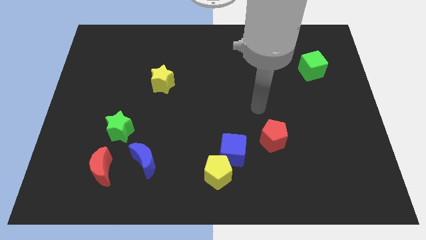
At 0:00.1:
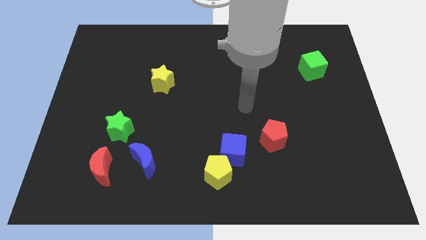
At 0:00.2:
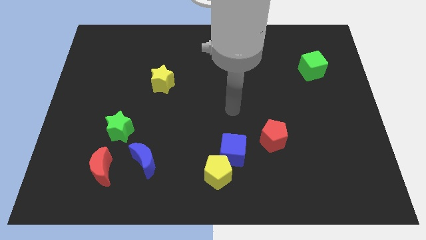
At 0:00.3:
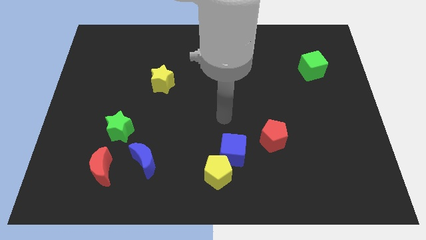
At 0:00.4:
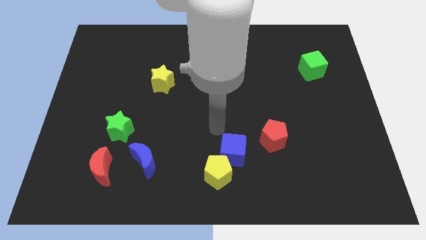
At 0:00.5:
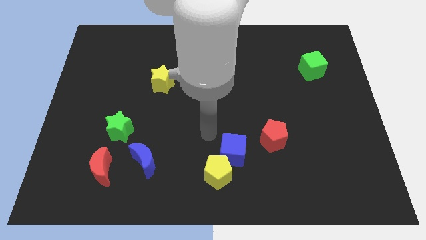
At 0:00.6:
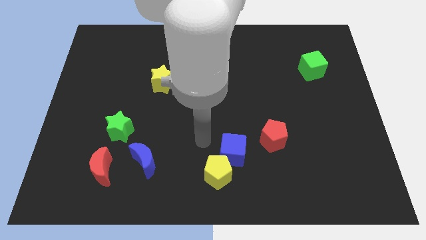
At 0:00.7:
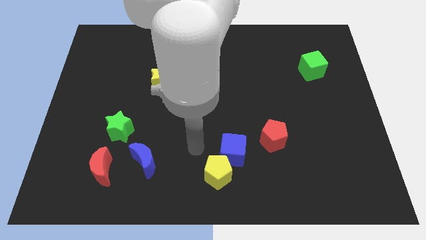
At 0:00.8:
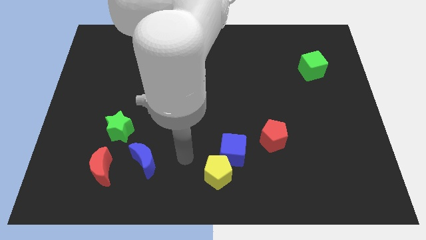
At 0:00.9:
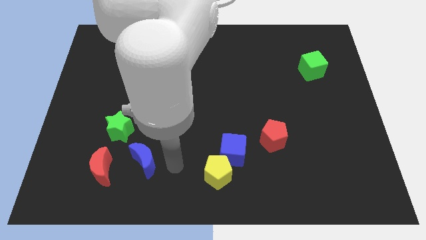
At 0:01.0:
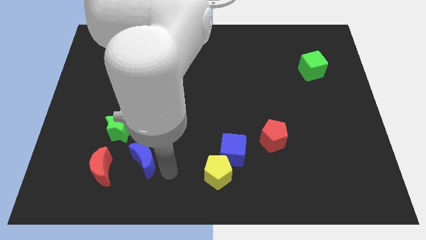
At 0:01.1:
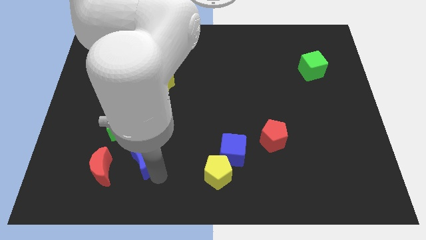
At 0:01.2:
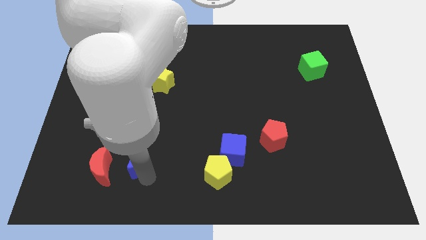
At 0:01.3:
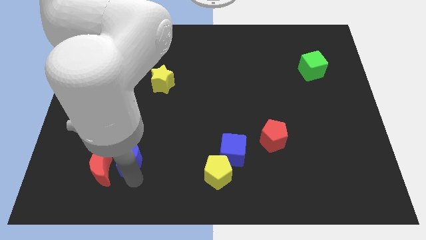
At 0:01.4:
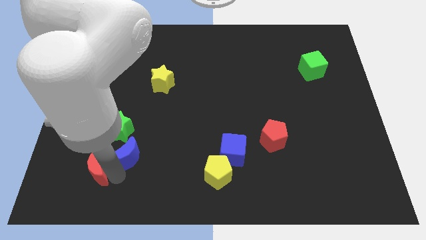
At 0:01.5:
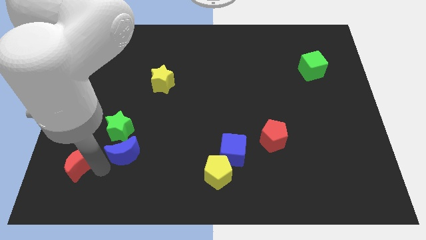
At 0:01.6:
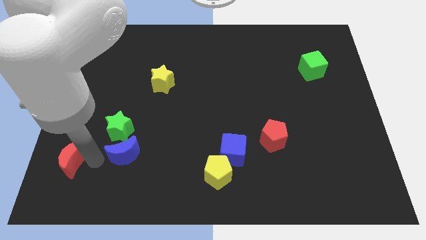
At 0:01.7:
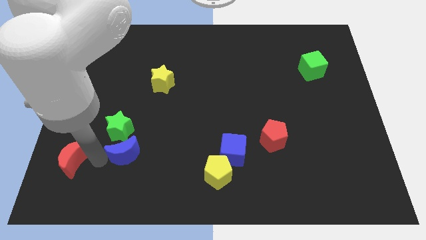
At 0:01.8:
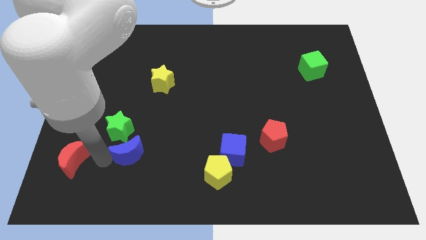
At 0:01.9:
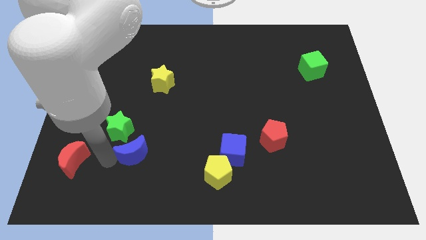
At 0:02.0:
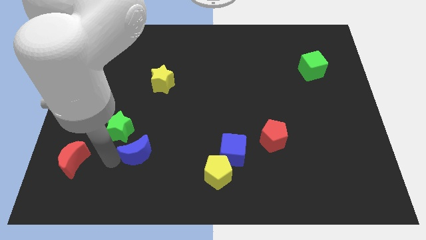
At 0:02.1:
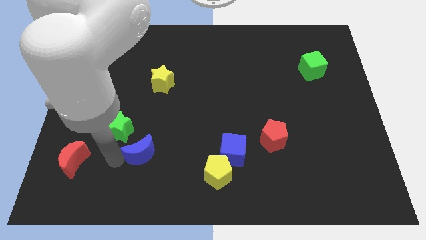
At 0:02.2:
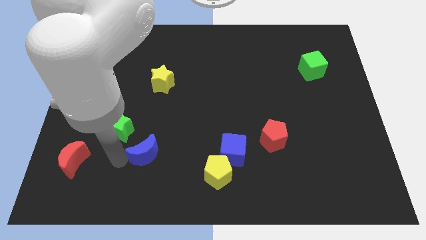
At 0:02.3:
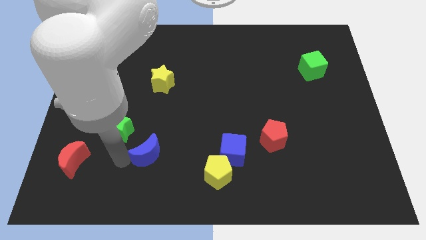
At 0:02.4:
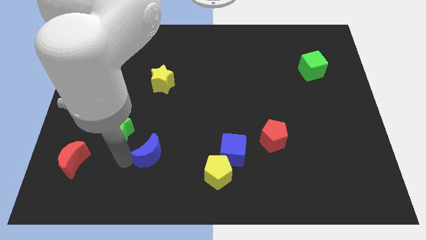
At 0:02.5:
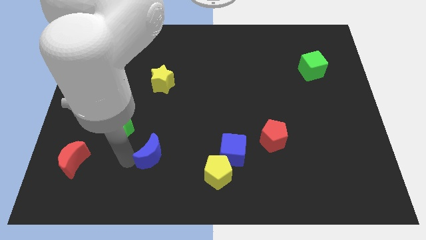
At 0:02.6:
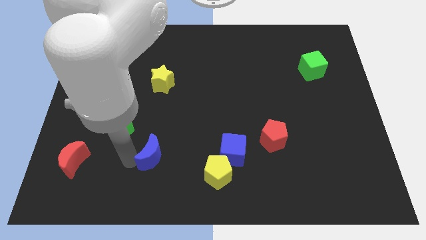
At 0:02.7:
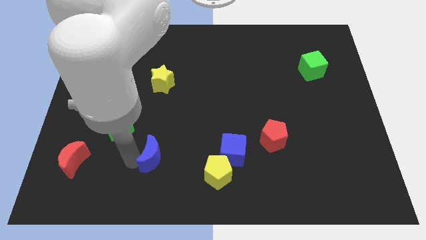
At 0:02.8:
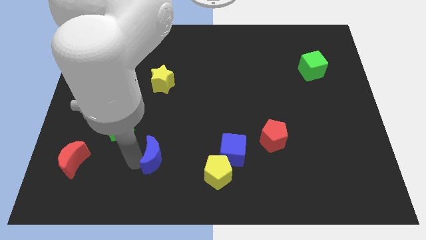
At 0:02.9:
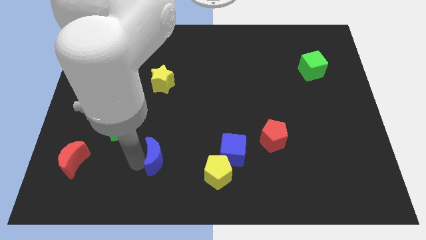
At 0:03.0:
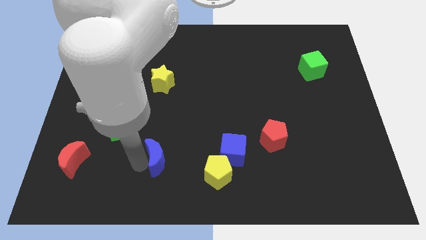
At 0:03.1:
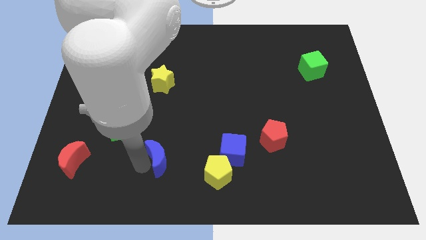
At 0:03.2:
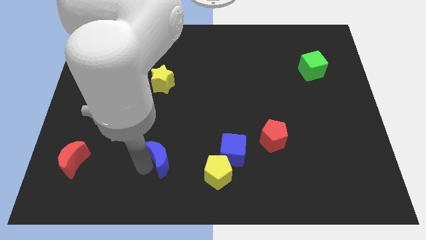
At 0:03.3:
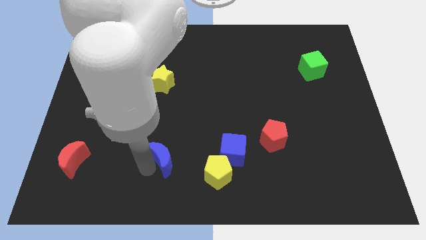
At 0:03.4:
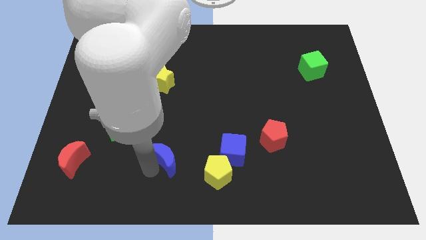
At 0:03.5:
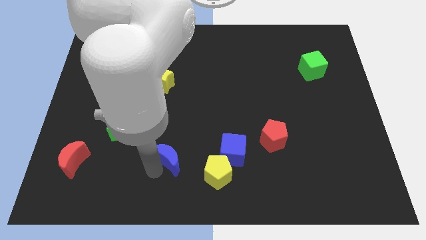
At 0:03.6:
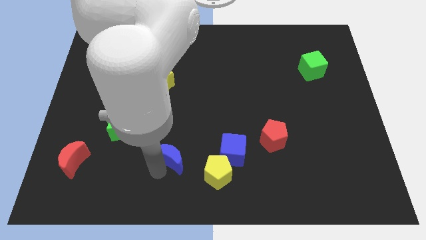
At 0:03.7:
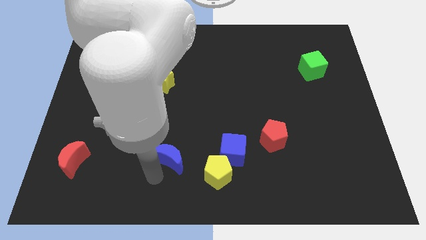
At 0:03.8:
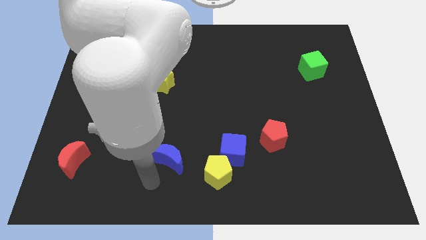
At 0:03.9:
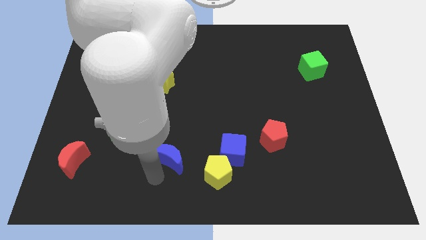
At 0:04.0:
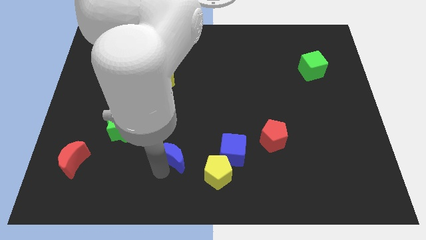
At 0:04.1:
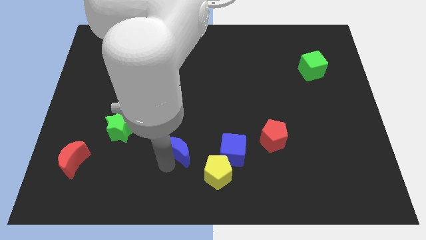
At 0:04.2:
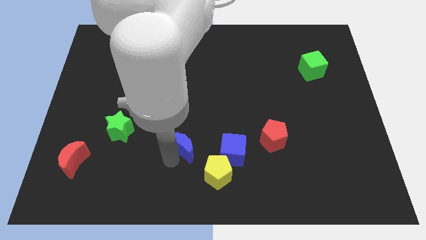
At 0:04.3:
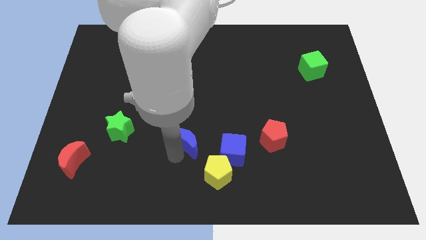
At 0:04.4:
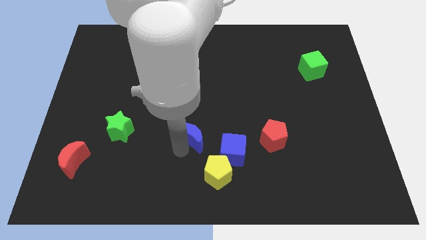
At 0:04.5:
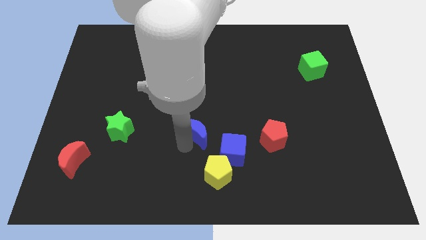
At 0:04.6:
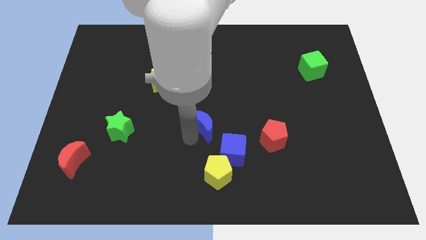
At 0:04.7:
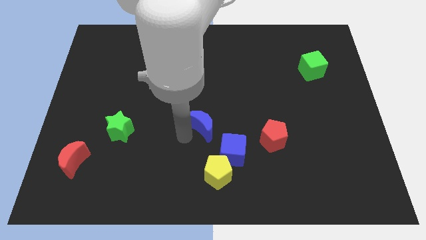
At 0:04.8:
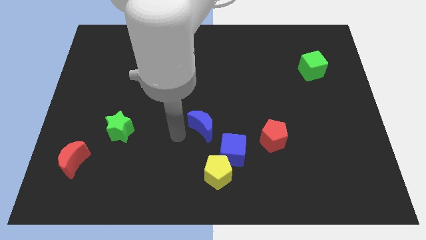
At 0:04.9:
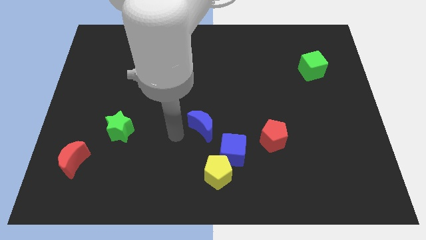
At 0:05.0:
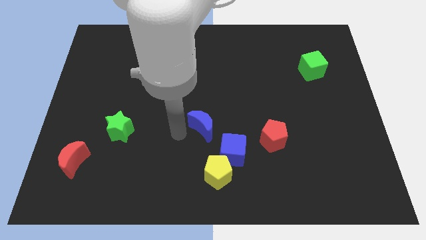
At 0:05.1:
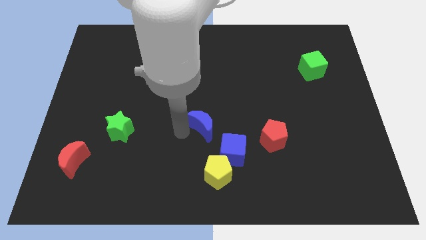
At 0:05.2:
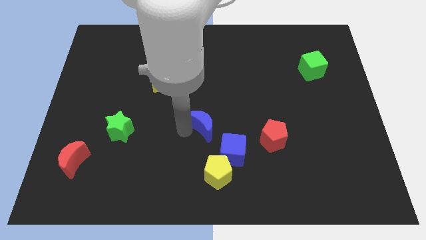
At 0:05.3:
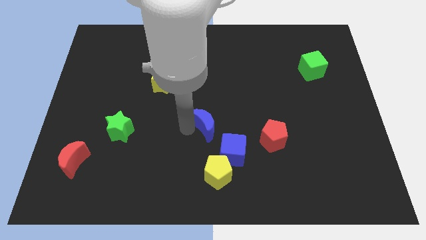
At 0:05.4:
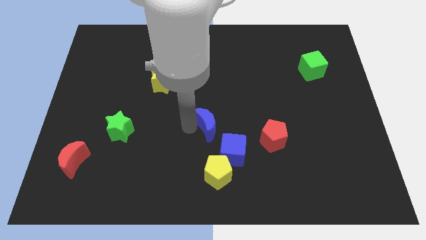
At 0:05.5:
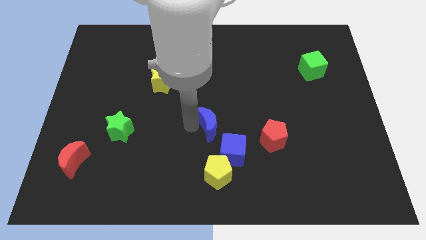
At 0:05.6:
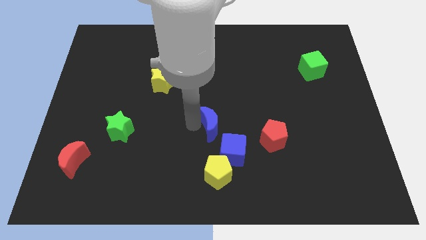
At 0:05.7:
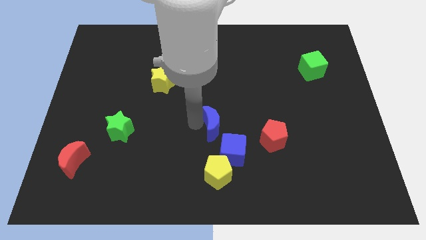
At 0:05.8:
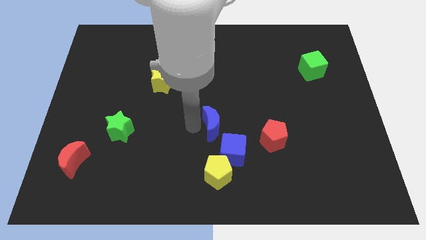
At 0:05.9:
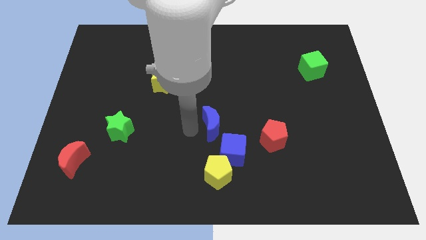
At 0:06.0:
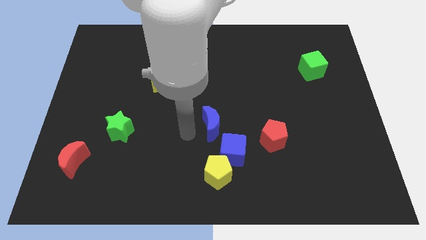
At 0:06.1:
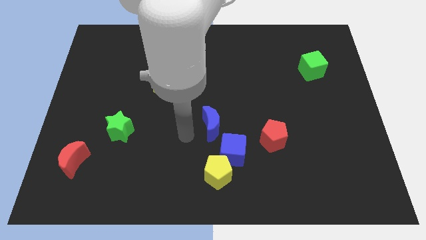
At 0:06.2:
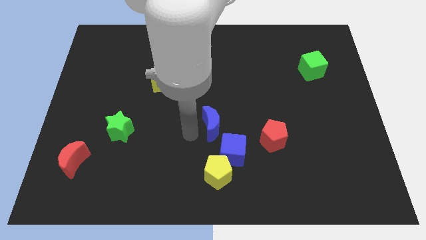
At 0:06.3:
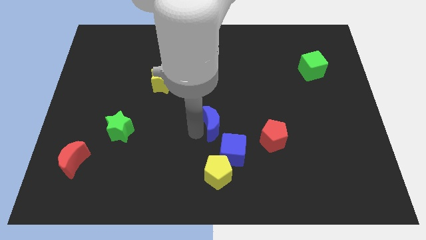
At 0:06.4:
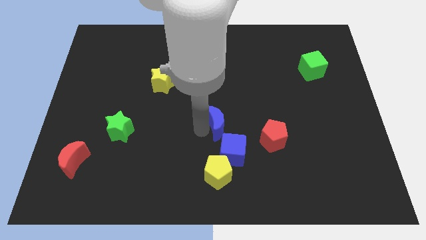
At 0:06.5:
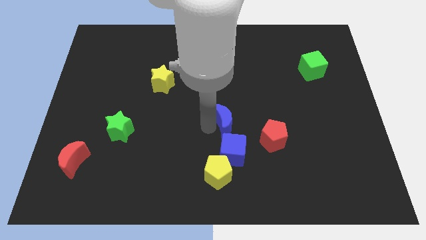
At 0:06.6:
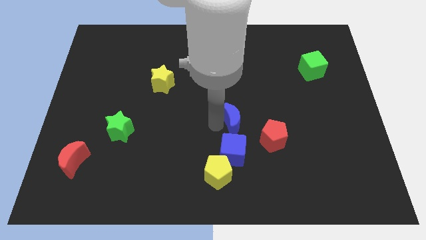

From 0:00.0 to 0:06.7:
put the blue moon diagonally up and to the left of the red pentagon
